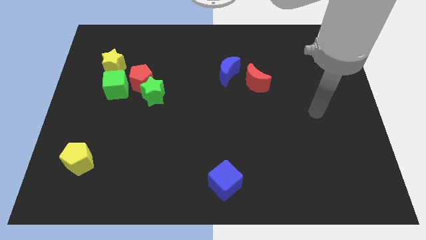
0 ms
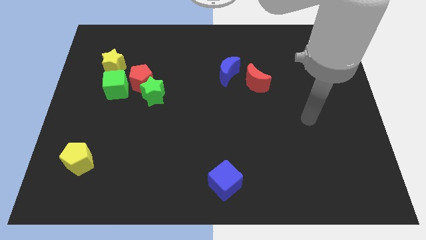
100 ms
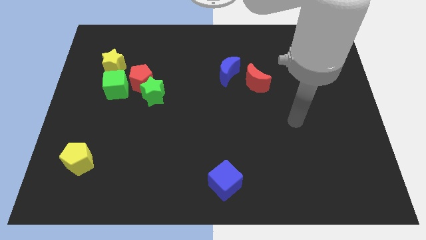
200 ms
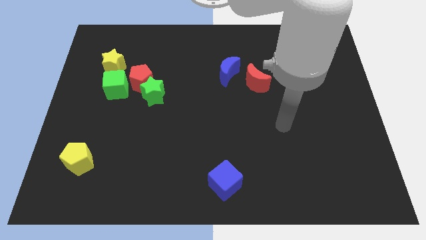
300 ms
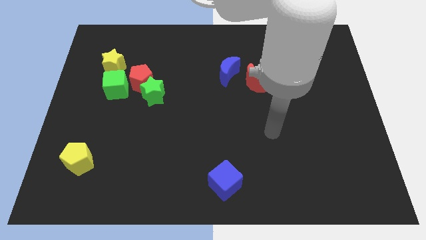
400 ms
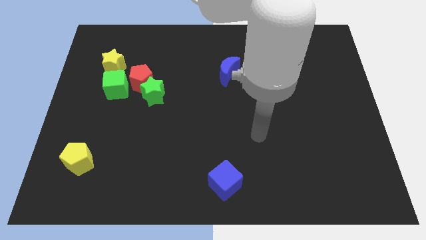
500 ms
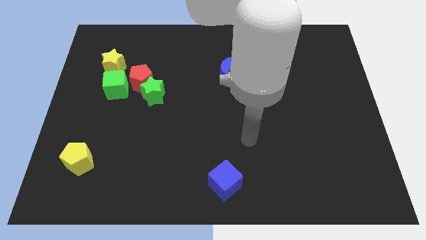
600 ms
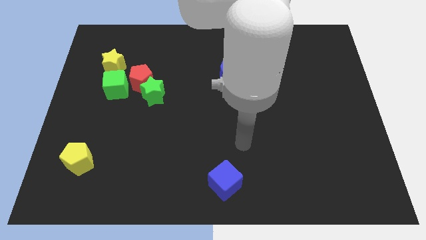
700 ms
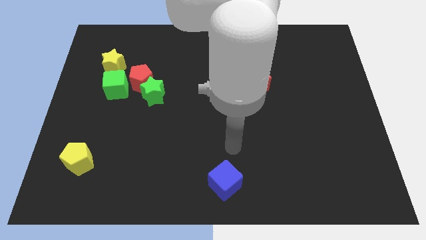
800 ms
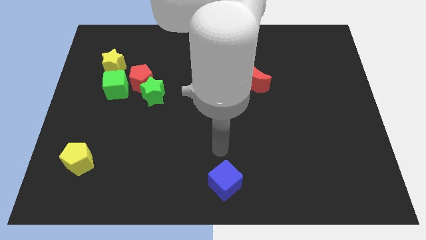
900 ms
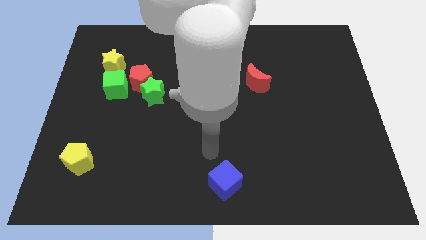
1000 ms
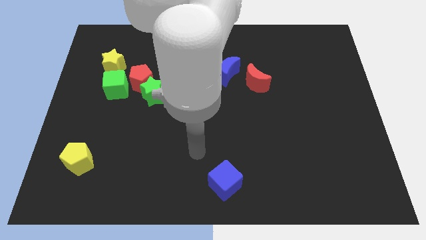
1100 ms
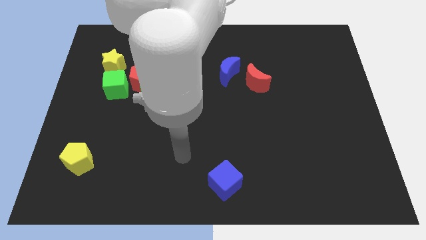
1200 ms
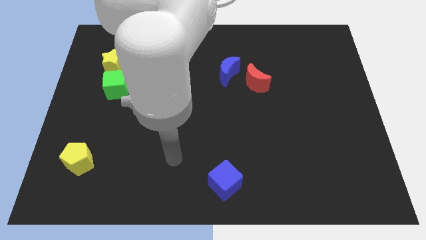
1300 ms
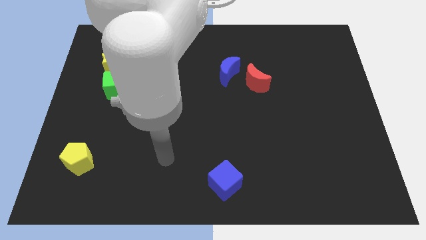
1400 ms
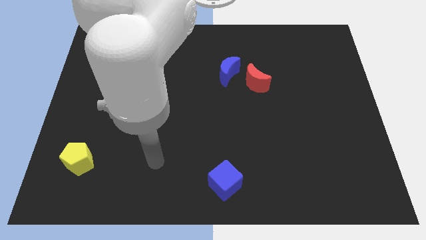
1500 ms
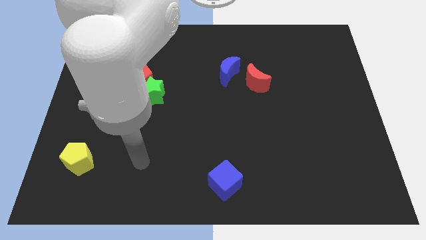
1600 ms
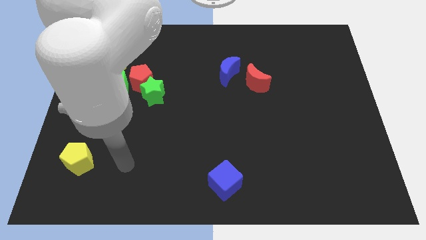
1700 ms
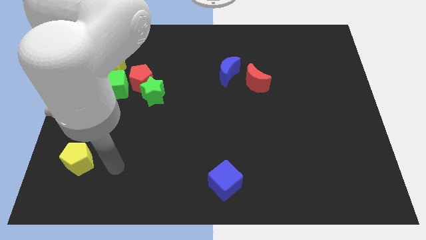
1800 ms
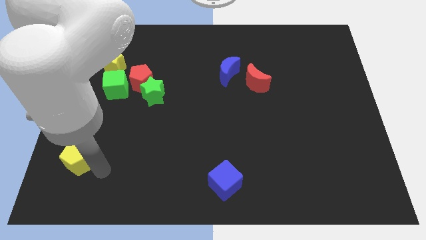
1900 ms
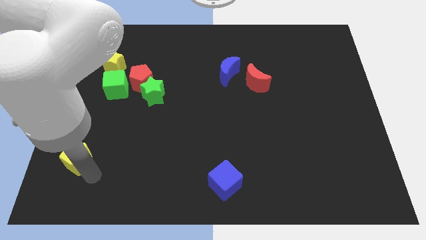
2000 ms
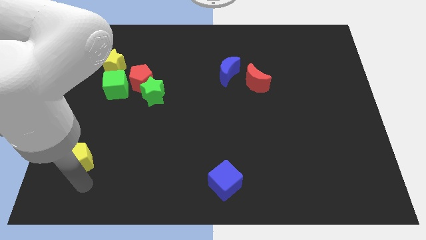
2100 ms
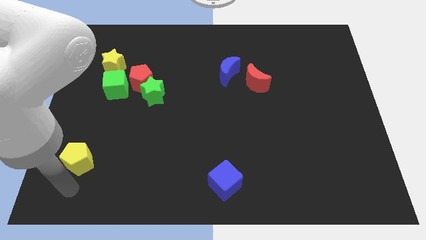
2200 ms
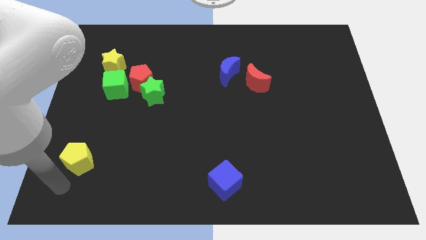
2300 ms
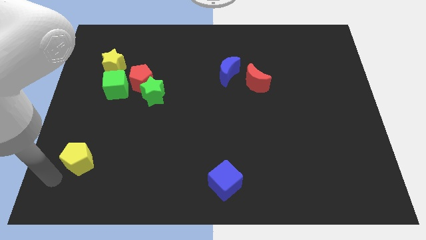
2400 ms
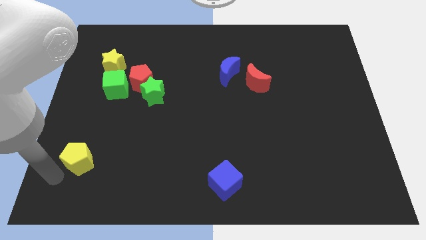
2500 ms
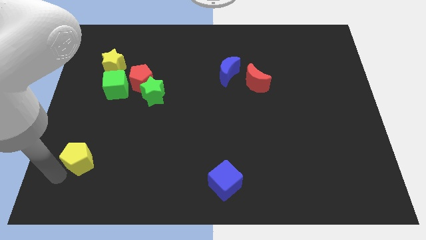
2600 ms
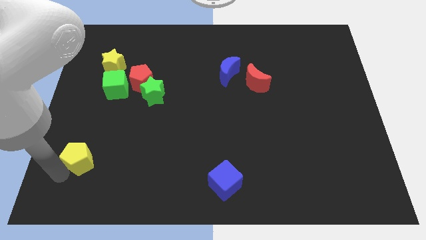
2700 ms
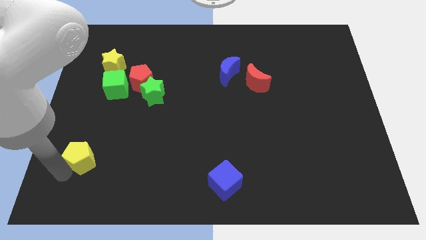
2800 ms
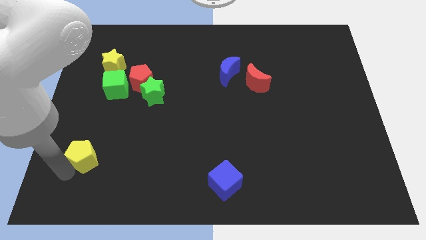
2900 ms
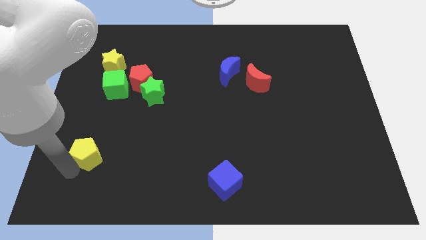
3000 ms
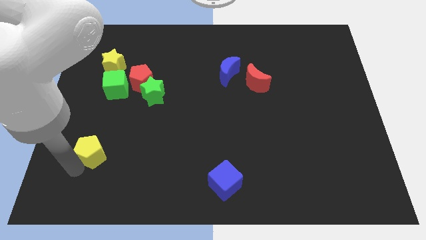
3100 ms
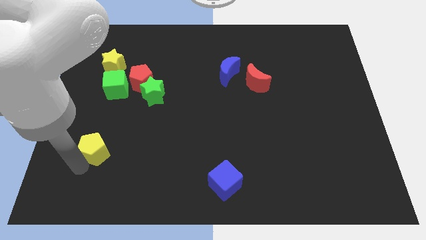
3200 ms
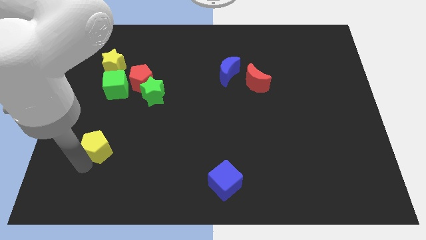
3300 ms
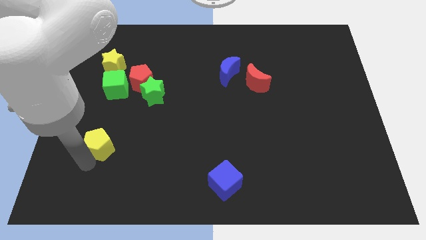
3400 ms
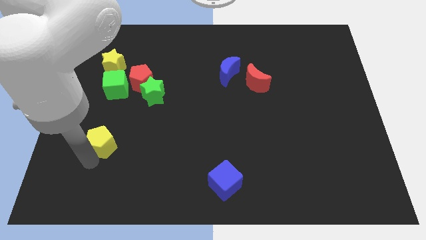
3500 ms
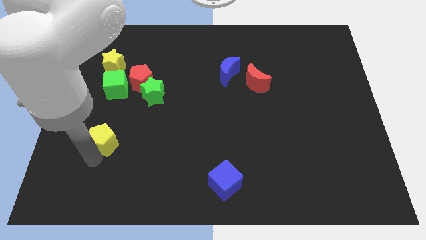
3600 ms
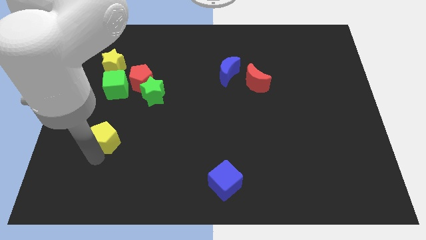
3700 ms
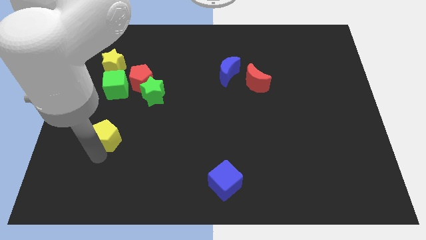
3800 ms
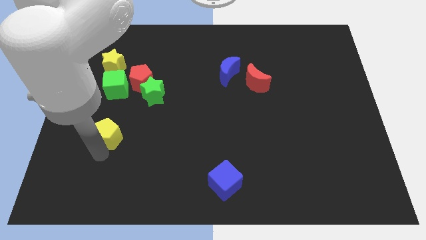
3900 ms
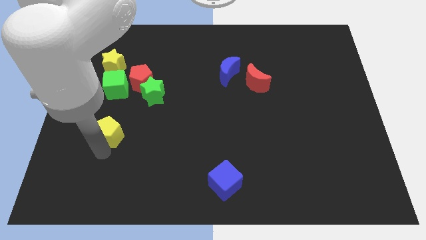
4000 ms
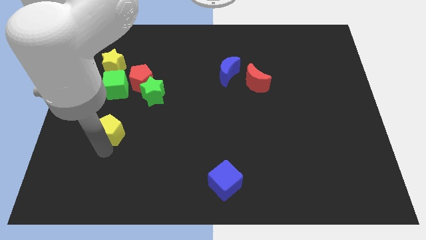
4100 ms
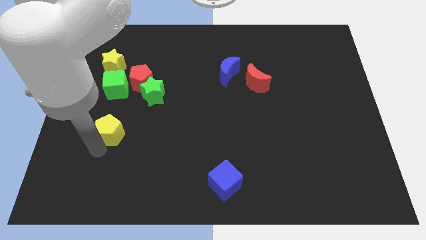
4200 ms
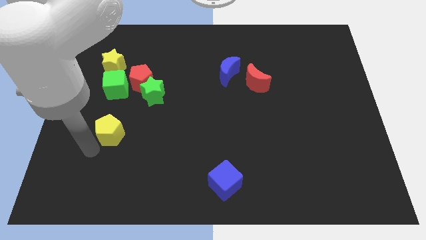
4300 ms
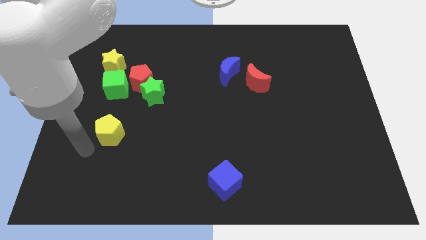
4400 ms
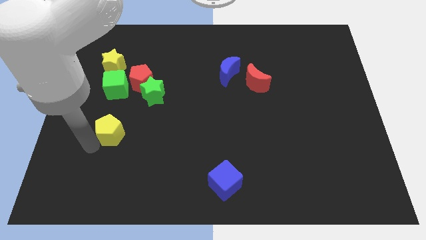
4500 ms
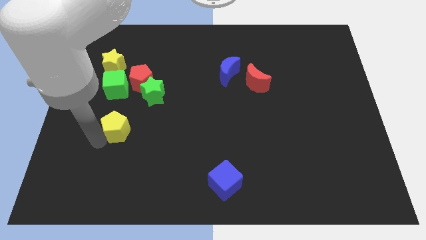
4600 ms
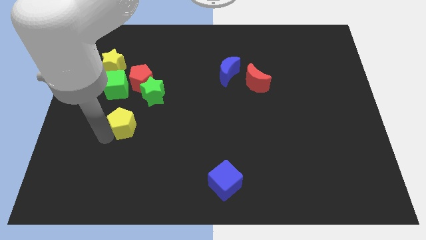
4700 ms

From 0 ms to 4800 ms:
slide the yellow pentagon to the bottom of the red pentagon

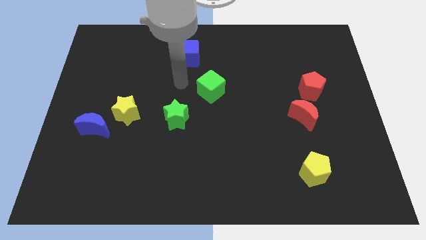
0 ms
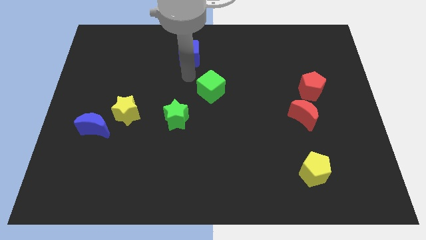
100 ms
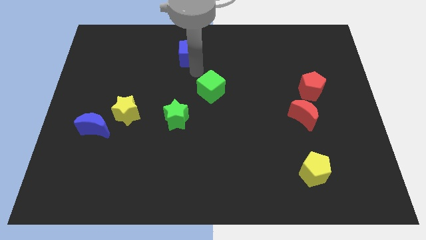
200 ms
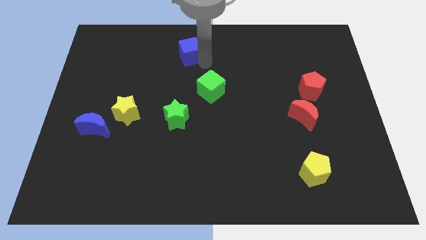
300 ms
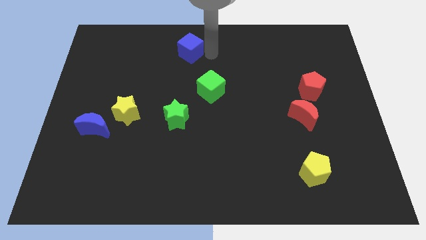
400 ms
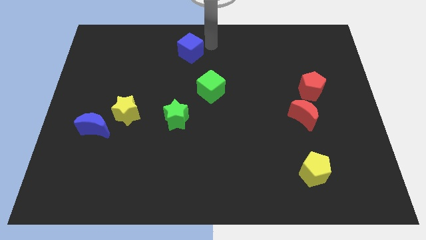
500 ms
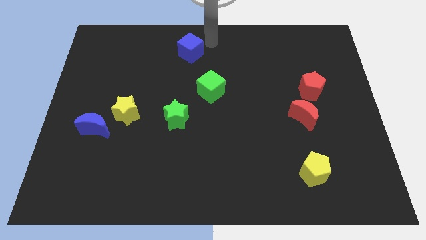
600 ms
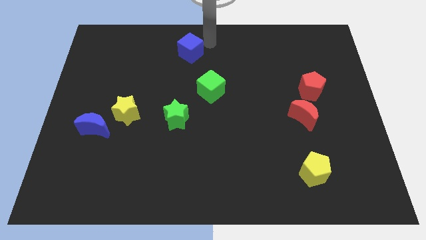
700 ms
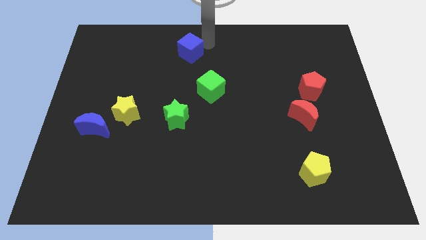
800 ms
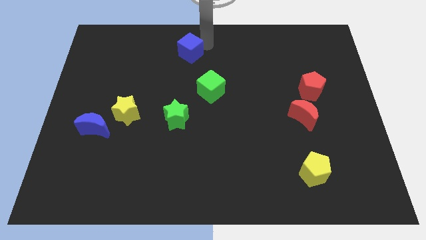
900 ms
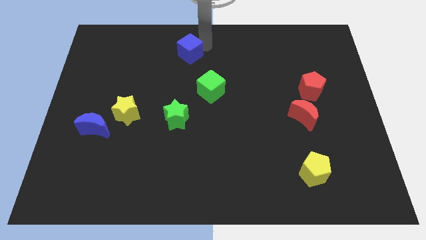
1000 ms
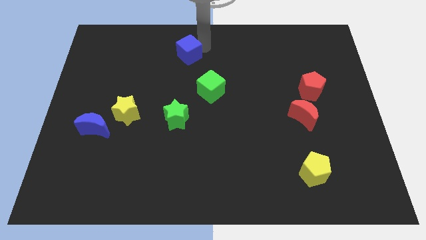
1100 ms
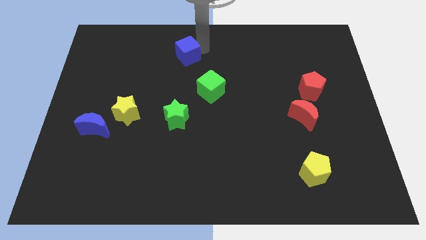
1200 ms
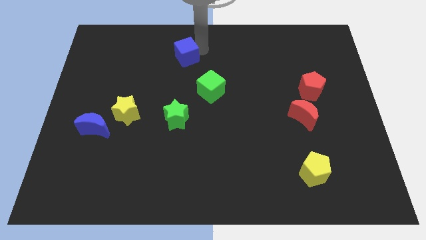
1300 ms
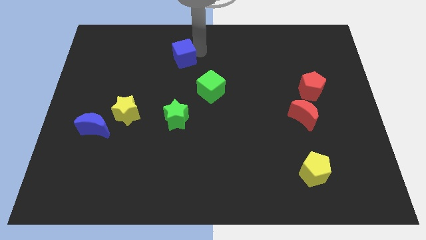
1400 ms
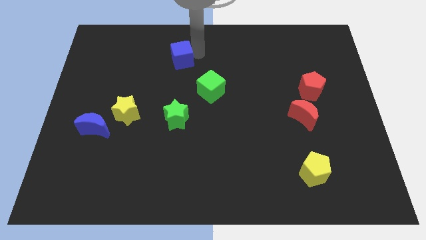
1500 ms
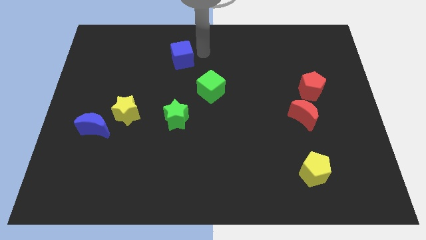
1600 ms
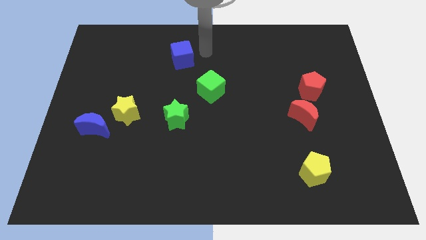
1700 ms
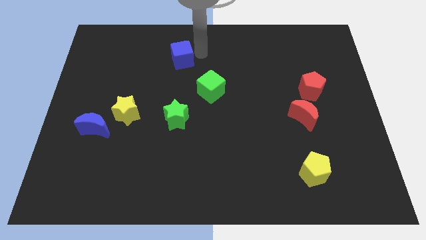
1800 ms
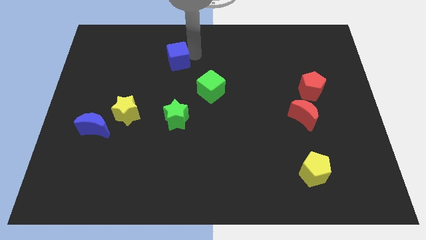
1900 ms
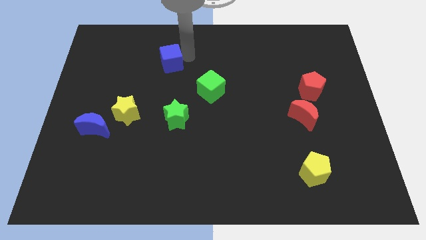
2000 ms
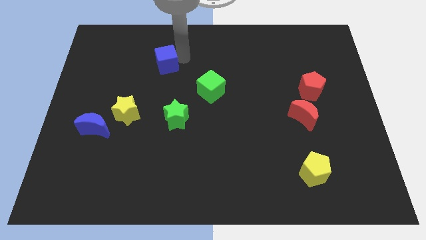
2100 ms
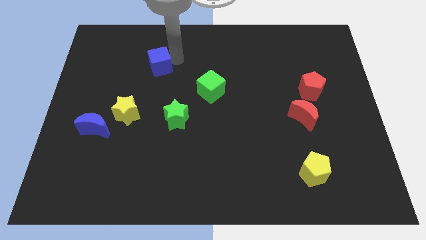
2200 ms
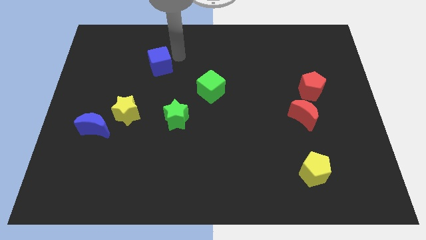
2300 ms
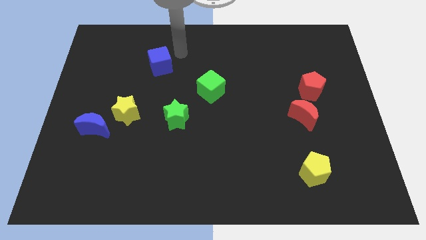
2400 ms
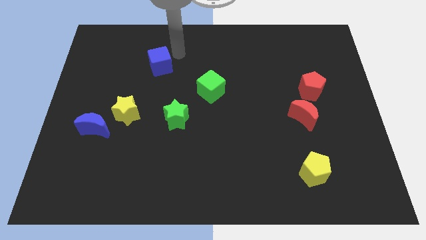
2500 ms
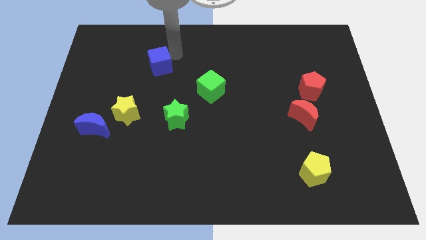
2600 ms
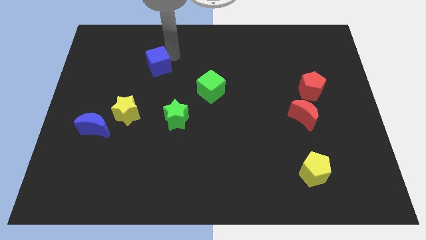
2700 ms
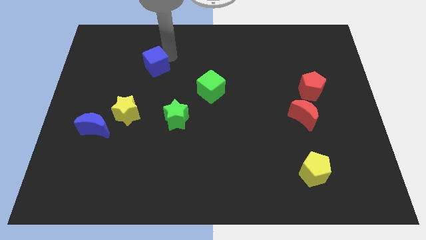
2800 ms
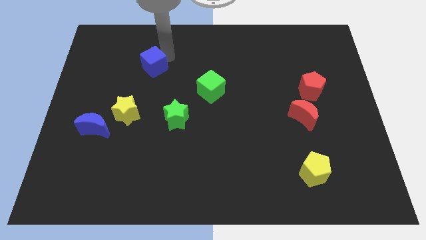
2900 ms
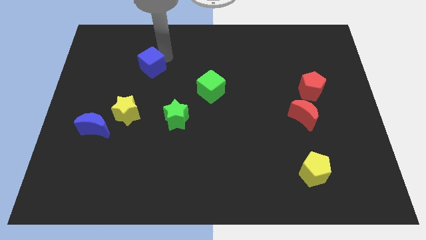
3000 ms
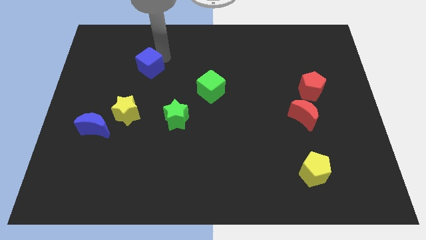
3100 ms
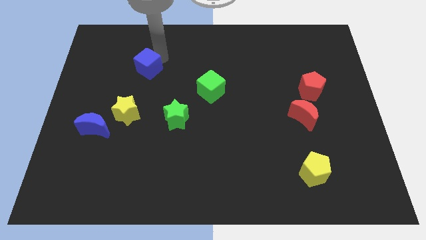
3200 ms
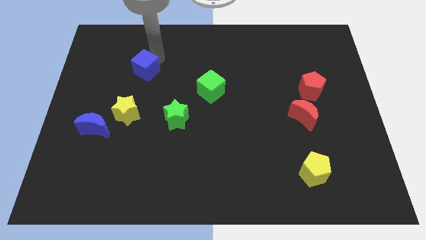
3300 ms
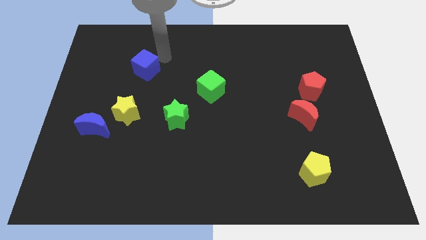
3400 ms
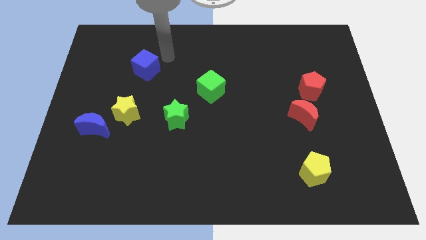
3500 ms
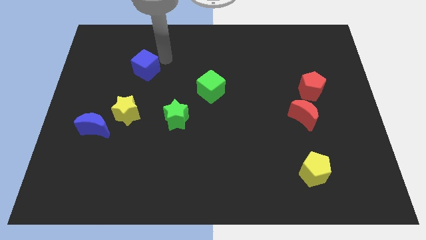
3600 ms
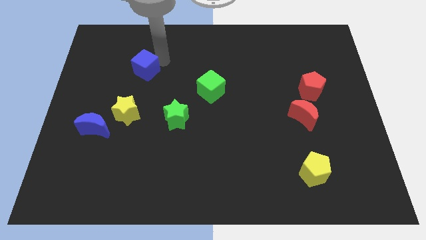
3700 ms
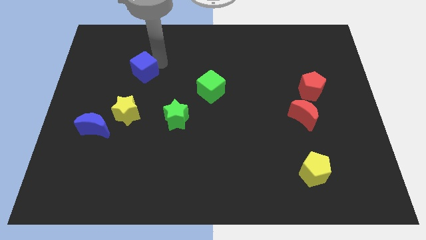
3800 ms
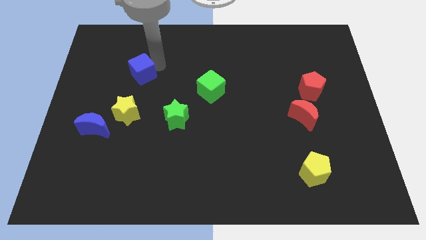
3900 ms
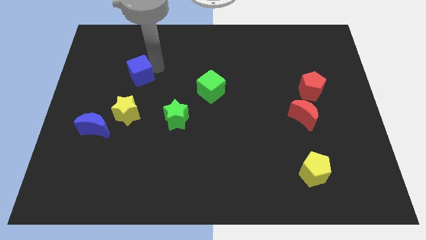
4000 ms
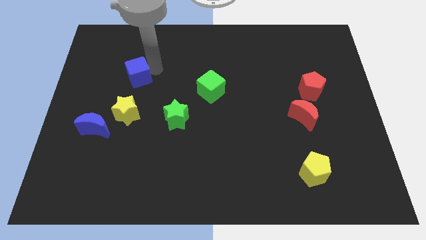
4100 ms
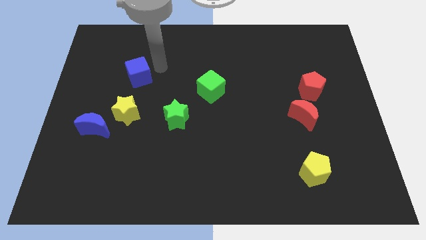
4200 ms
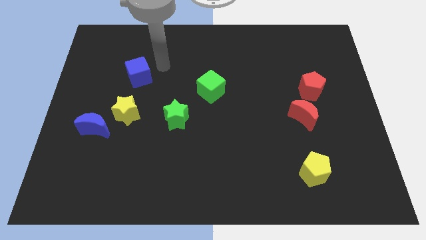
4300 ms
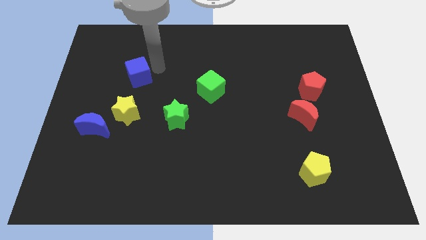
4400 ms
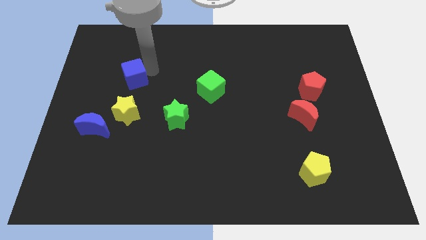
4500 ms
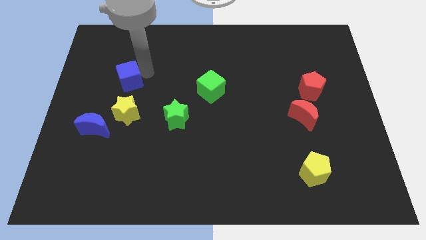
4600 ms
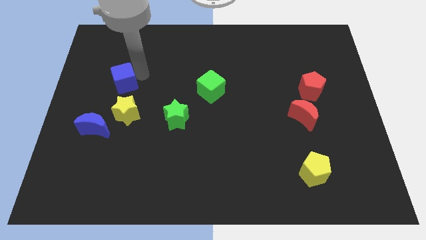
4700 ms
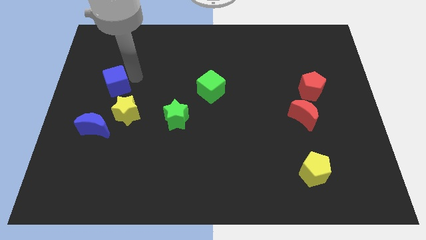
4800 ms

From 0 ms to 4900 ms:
put the blue cube to the top side of the blue moon
